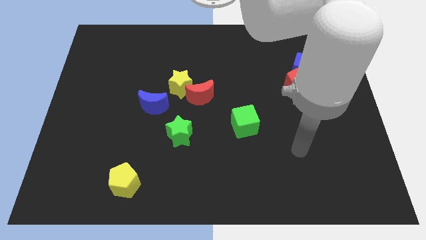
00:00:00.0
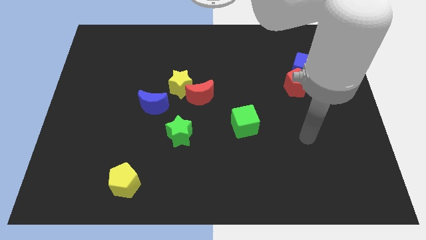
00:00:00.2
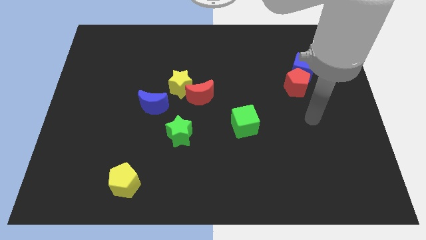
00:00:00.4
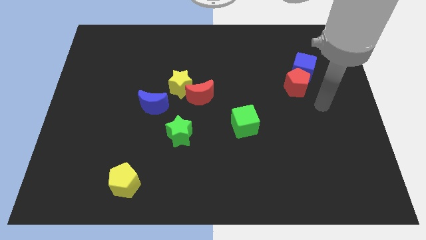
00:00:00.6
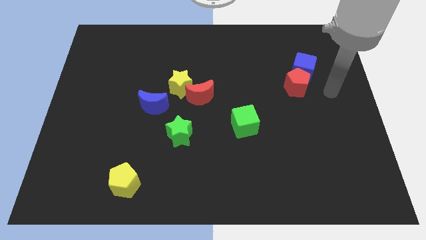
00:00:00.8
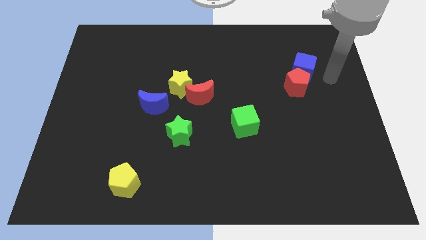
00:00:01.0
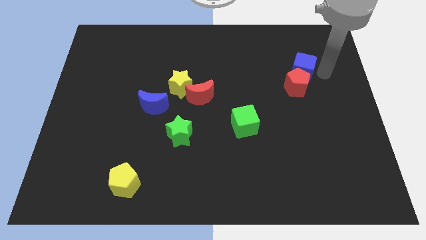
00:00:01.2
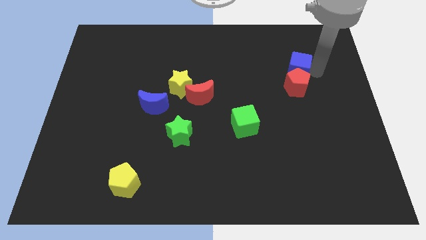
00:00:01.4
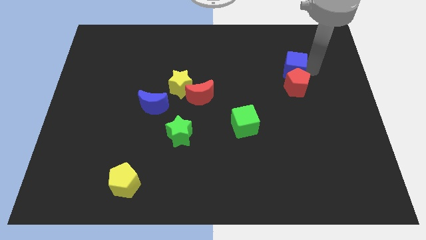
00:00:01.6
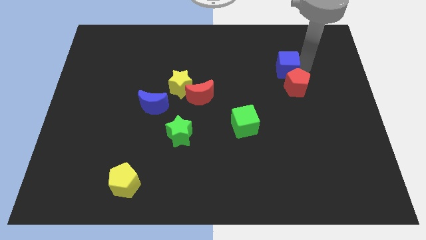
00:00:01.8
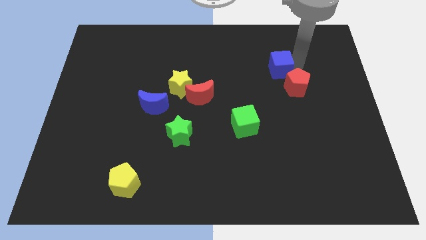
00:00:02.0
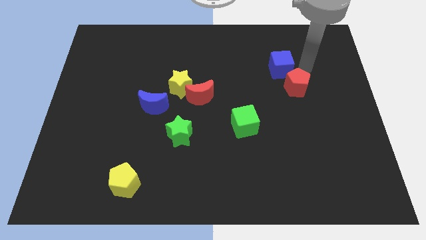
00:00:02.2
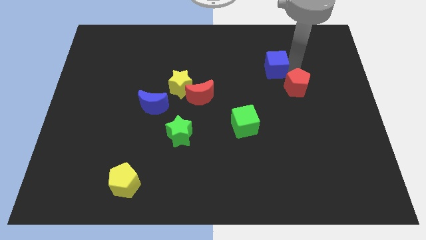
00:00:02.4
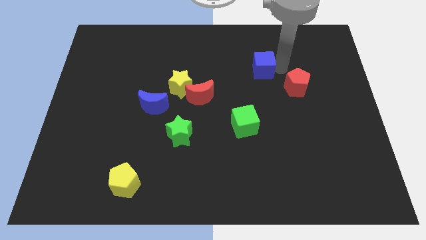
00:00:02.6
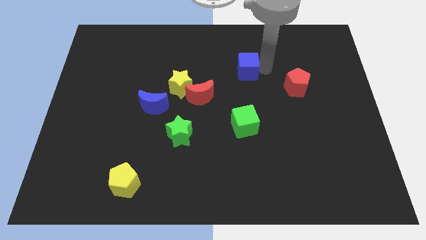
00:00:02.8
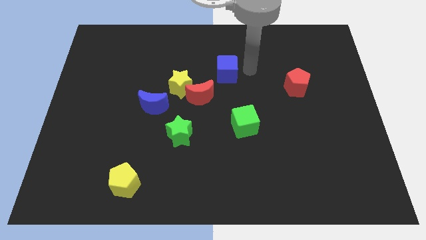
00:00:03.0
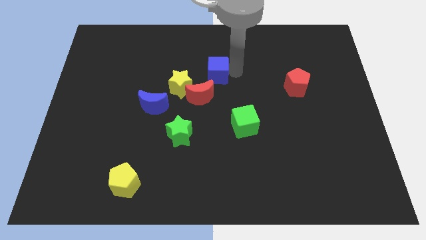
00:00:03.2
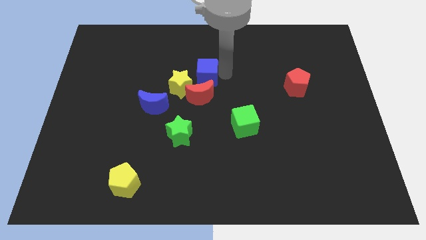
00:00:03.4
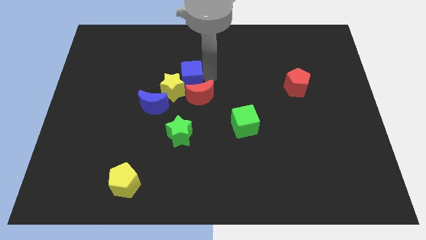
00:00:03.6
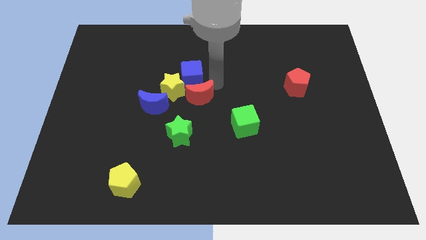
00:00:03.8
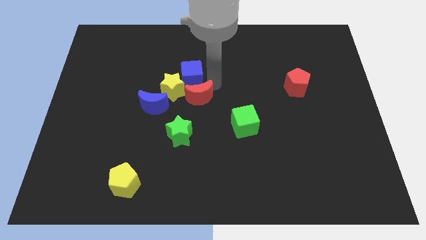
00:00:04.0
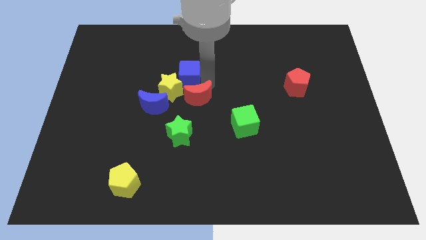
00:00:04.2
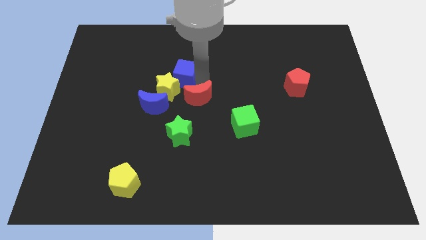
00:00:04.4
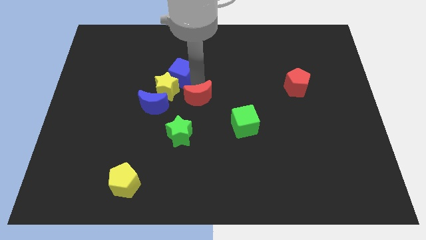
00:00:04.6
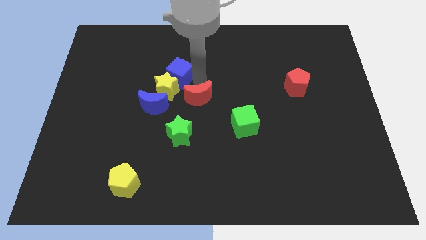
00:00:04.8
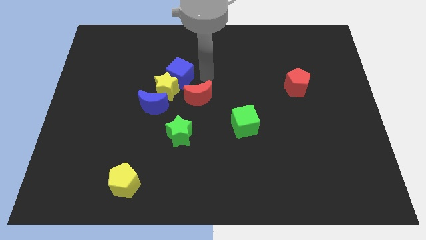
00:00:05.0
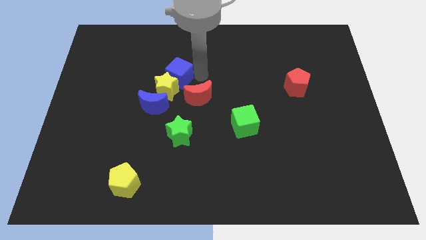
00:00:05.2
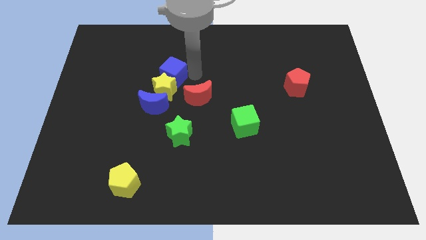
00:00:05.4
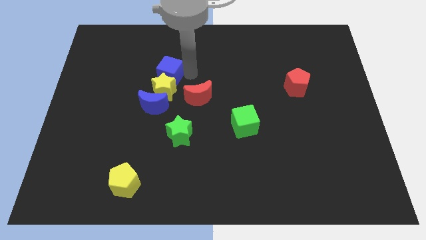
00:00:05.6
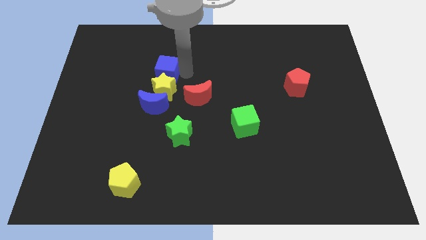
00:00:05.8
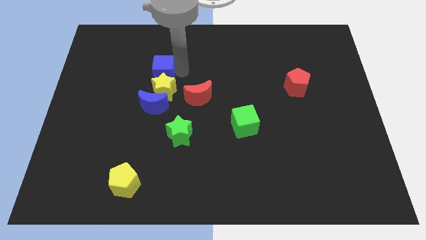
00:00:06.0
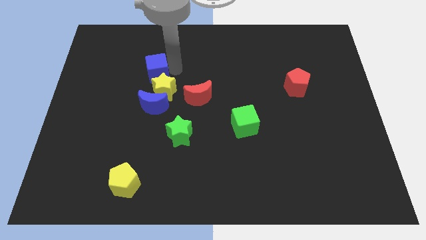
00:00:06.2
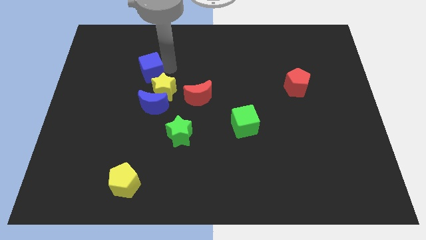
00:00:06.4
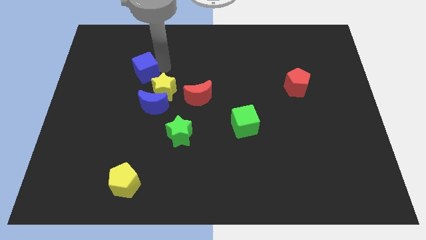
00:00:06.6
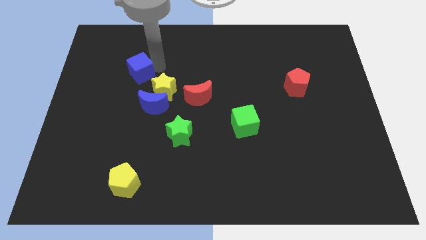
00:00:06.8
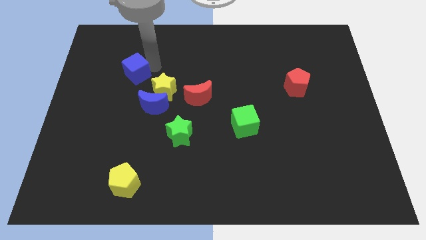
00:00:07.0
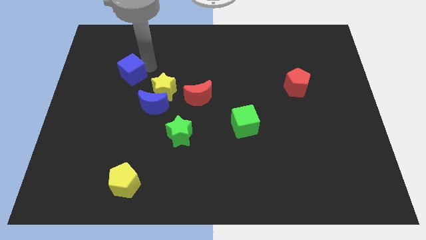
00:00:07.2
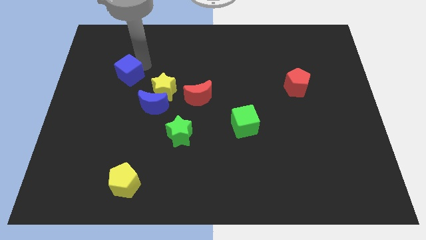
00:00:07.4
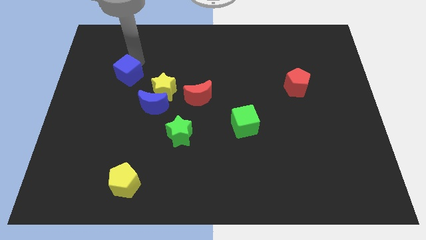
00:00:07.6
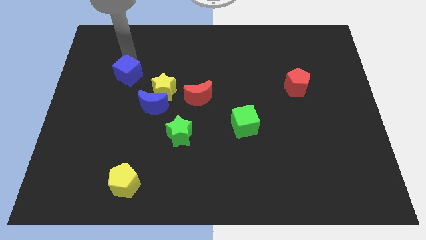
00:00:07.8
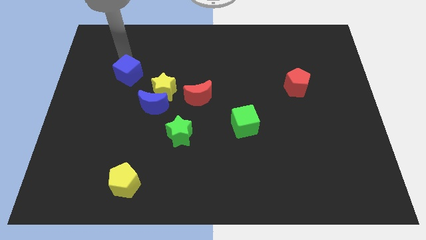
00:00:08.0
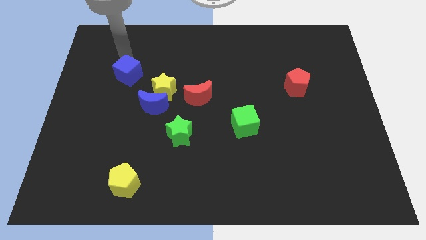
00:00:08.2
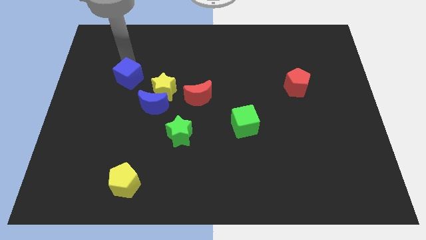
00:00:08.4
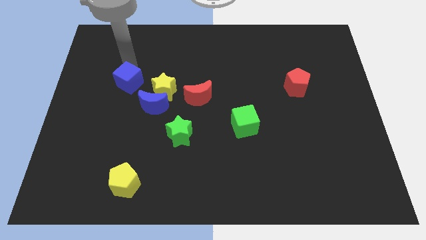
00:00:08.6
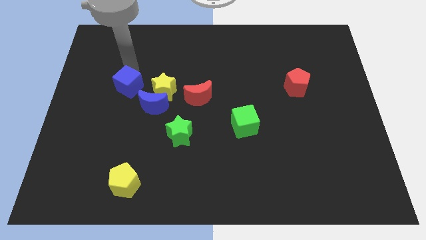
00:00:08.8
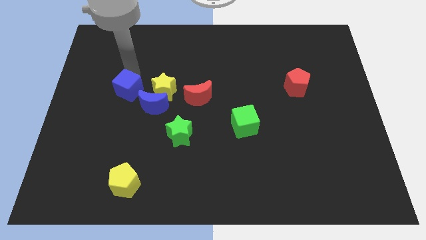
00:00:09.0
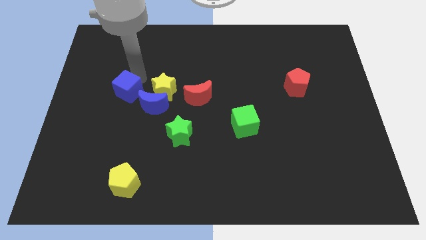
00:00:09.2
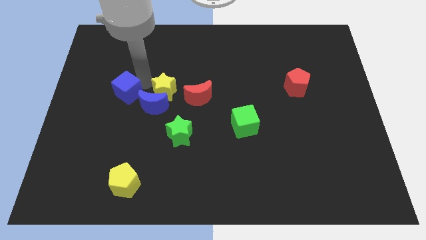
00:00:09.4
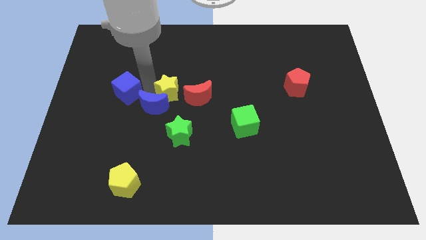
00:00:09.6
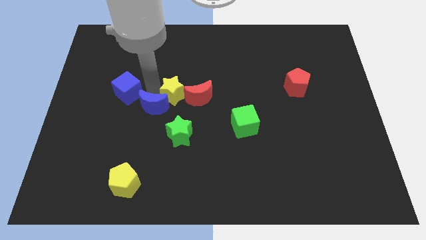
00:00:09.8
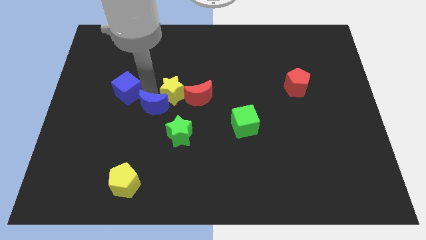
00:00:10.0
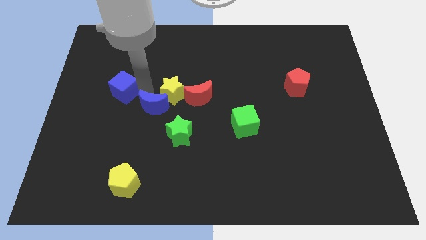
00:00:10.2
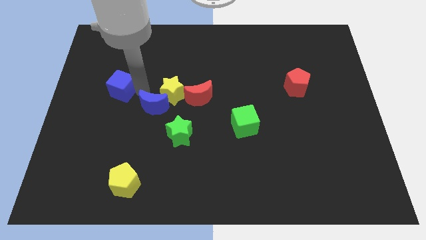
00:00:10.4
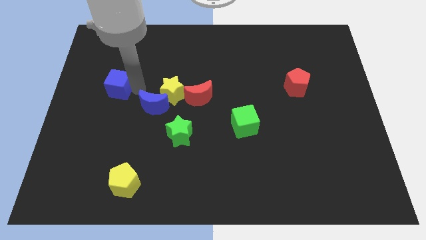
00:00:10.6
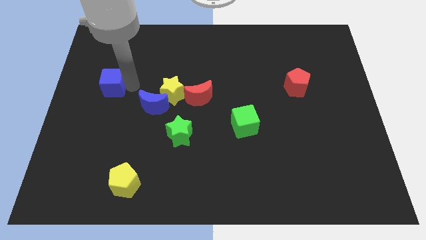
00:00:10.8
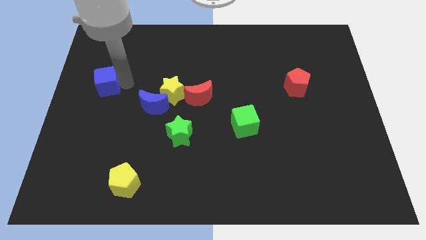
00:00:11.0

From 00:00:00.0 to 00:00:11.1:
move the blue cube to the center left

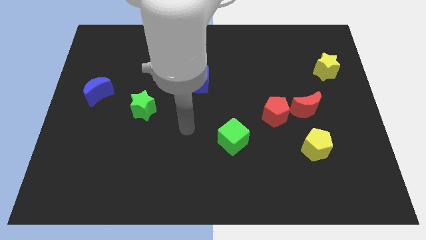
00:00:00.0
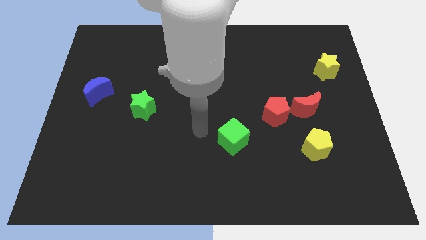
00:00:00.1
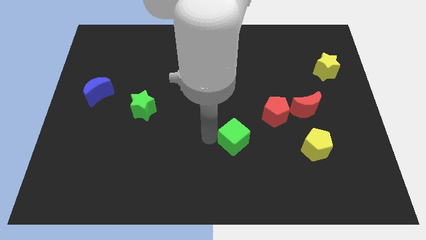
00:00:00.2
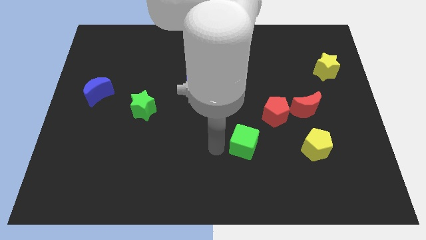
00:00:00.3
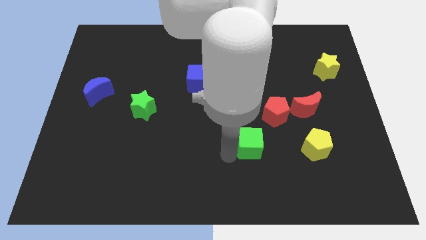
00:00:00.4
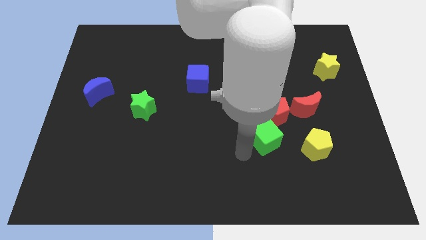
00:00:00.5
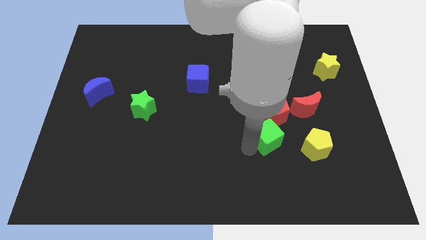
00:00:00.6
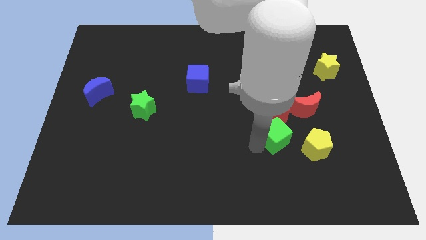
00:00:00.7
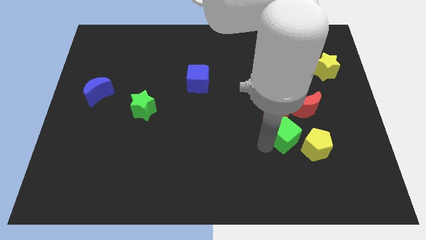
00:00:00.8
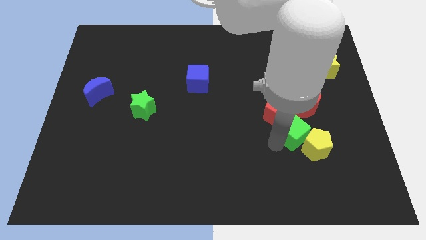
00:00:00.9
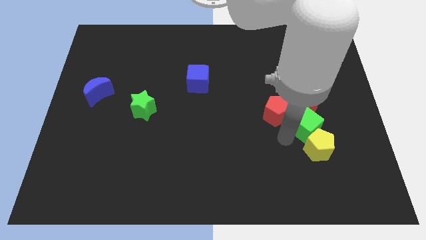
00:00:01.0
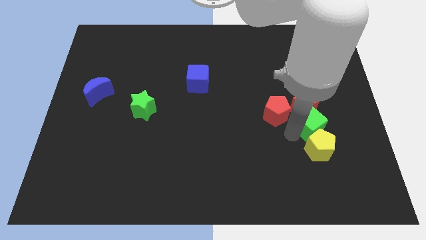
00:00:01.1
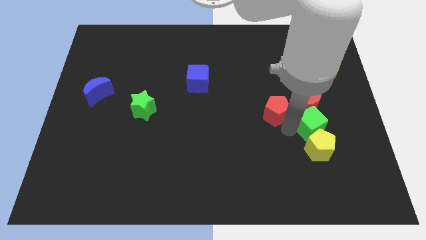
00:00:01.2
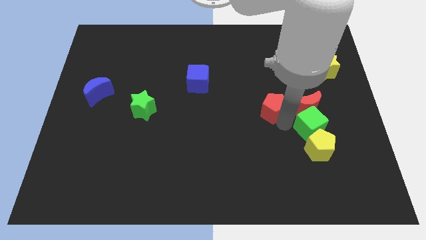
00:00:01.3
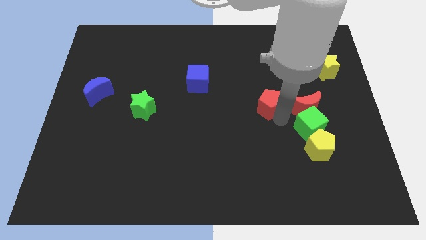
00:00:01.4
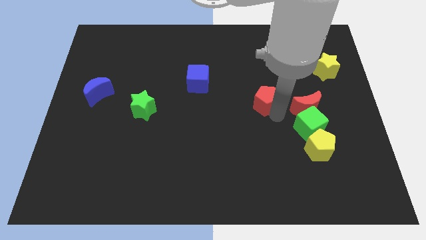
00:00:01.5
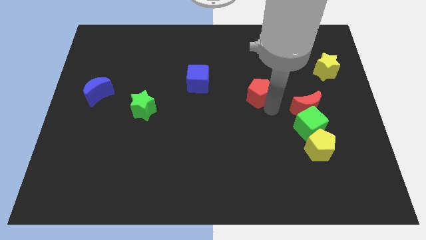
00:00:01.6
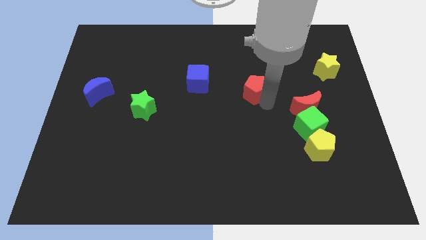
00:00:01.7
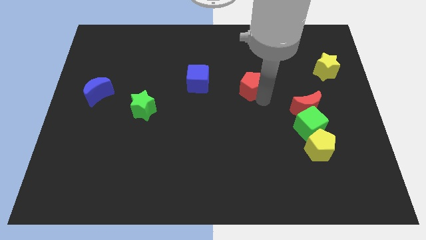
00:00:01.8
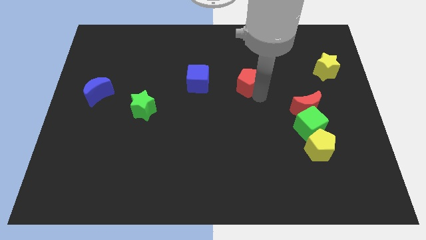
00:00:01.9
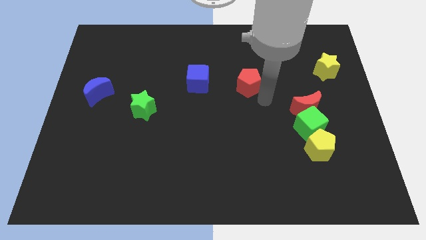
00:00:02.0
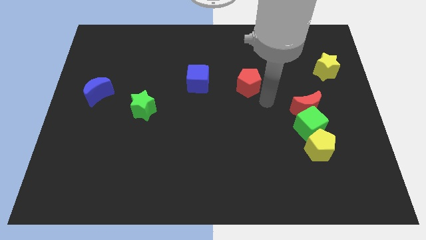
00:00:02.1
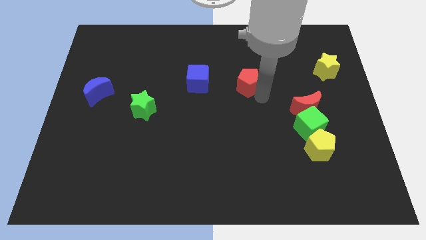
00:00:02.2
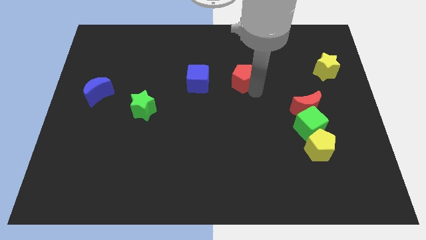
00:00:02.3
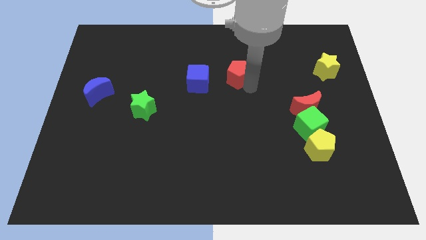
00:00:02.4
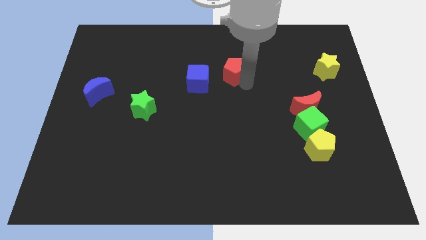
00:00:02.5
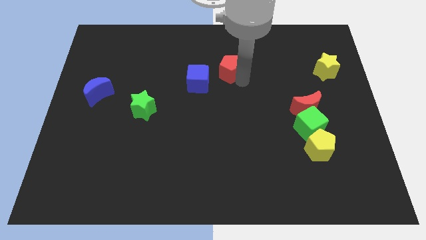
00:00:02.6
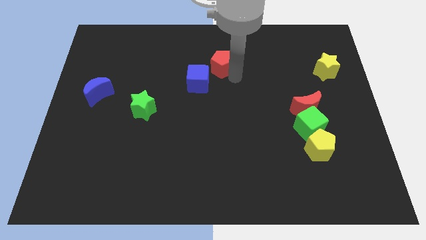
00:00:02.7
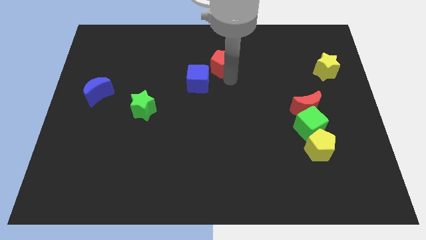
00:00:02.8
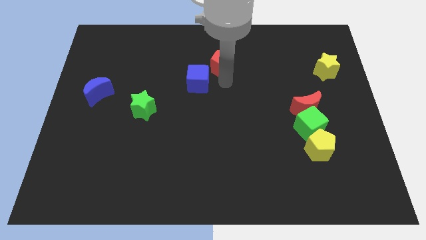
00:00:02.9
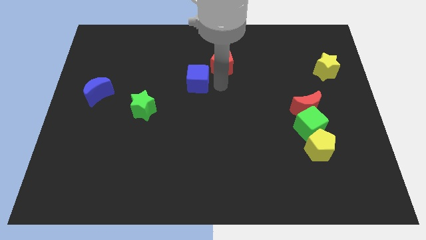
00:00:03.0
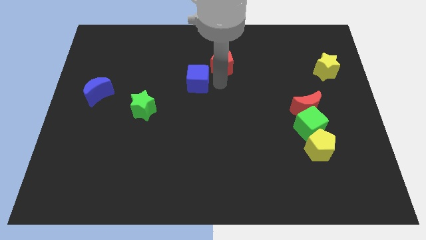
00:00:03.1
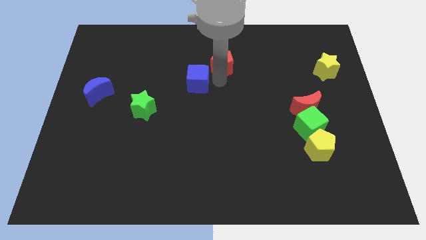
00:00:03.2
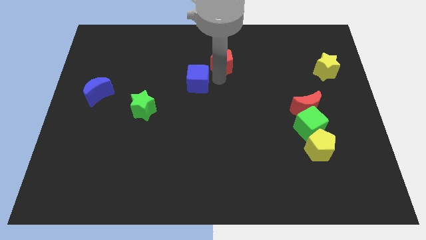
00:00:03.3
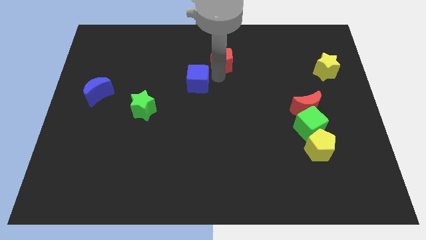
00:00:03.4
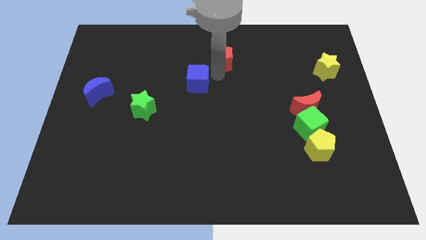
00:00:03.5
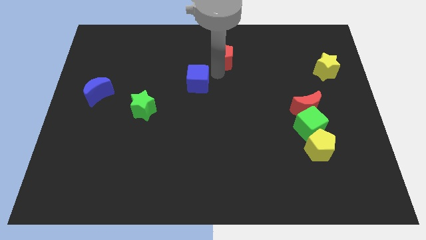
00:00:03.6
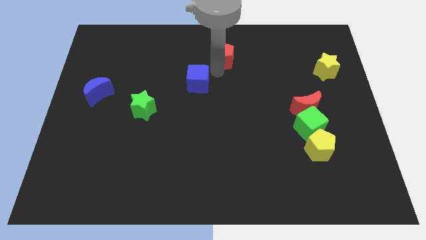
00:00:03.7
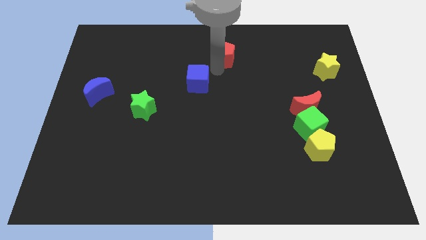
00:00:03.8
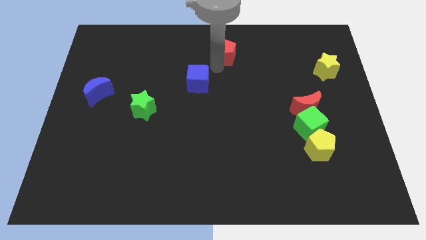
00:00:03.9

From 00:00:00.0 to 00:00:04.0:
slide the red pentagon to the top side
